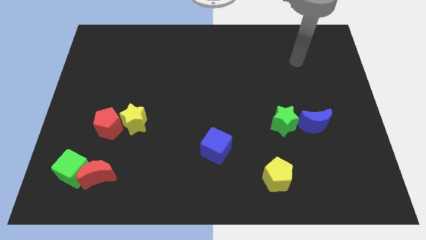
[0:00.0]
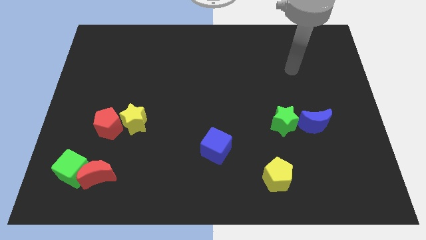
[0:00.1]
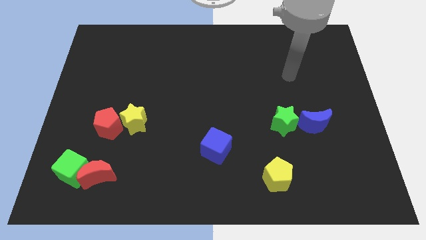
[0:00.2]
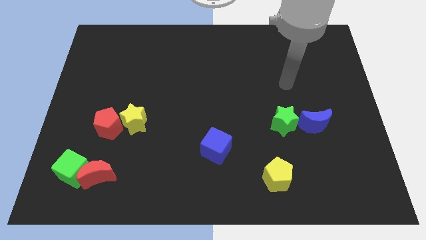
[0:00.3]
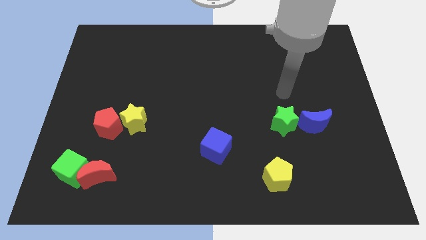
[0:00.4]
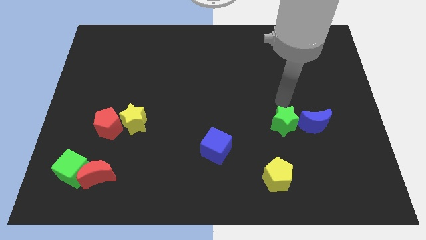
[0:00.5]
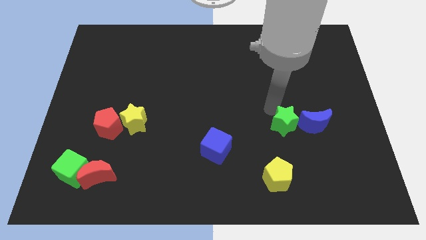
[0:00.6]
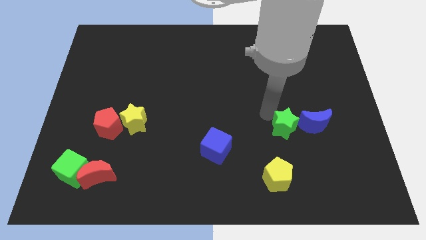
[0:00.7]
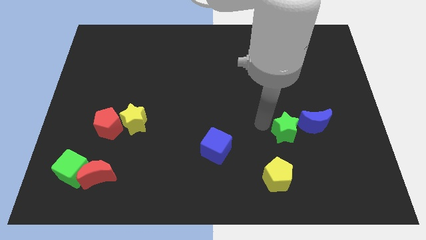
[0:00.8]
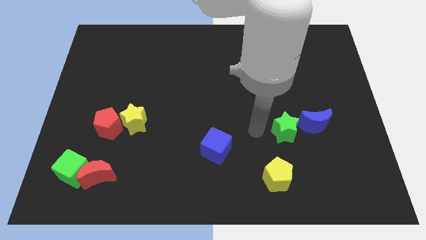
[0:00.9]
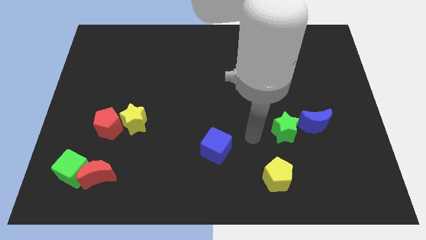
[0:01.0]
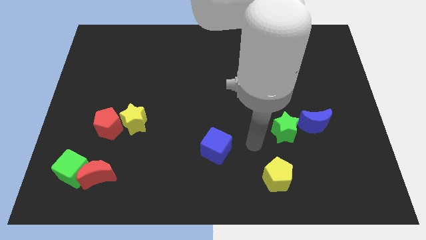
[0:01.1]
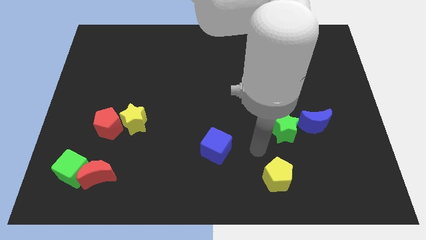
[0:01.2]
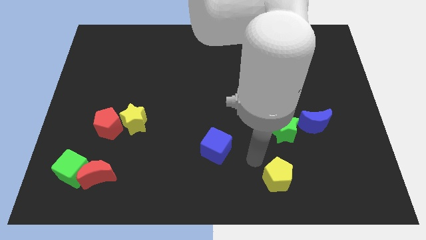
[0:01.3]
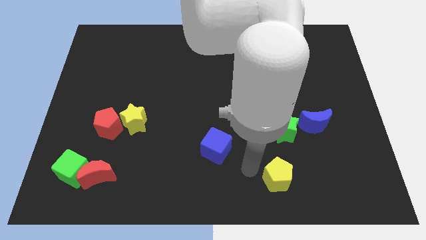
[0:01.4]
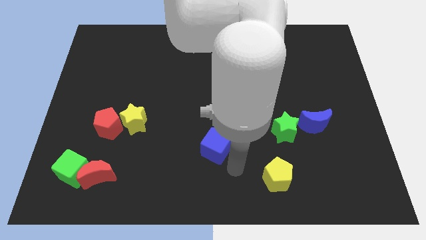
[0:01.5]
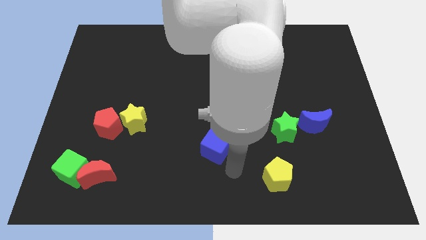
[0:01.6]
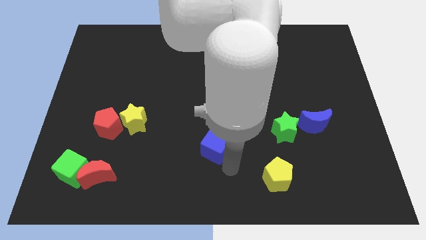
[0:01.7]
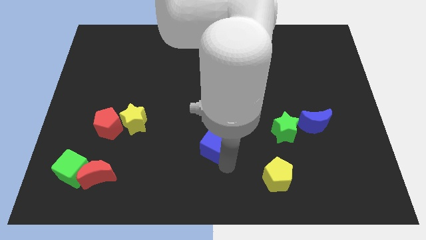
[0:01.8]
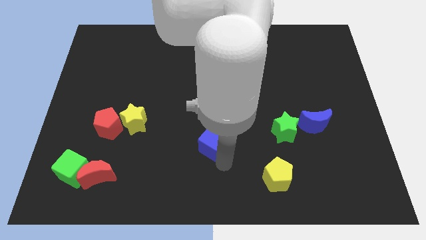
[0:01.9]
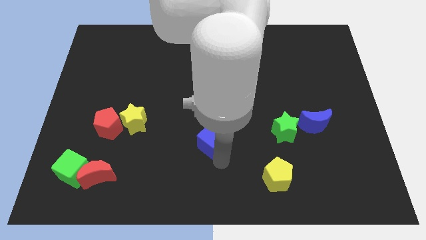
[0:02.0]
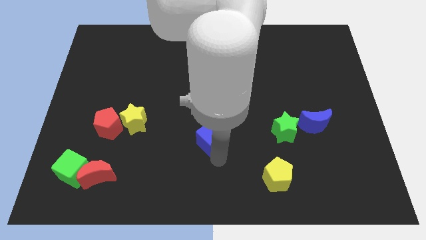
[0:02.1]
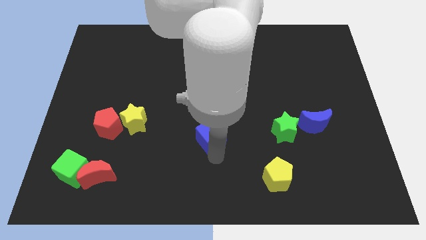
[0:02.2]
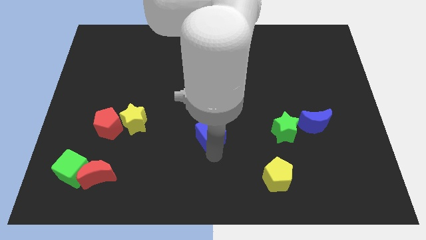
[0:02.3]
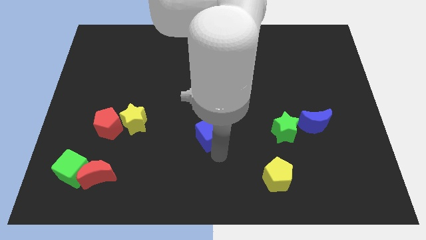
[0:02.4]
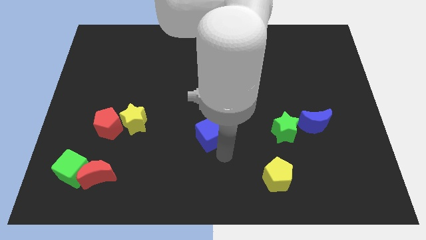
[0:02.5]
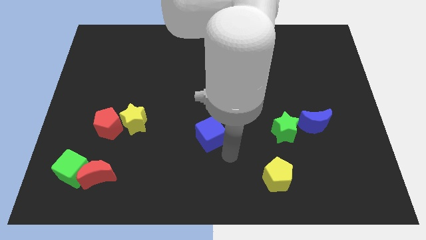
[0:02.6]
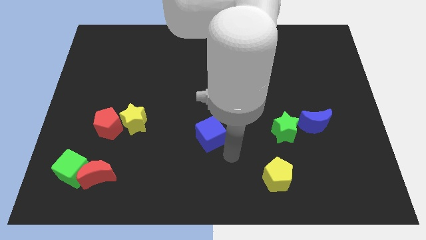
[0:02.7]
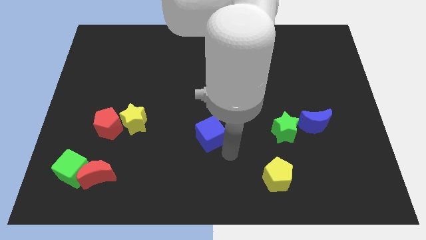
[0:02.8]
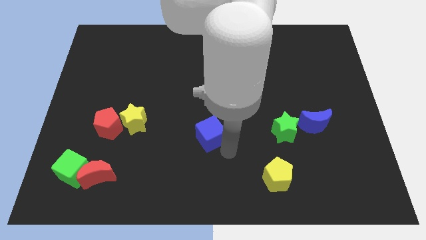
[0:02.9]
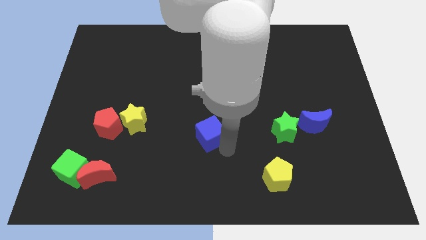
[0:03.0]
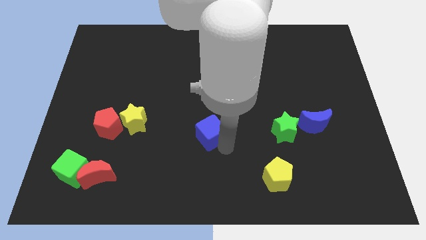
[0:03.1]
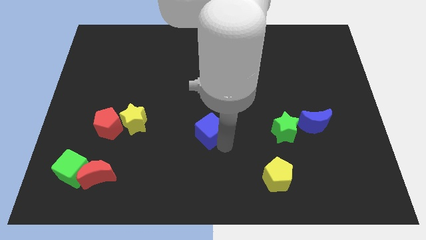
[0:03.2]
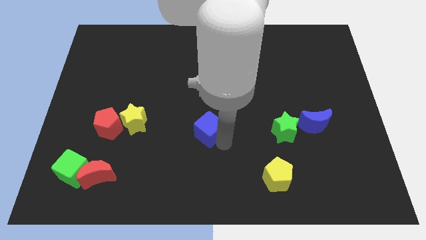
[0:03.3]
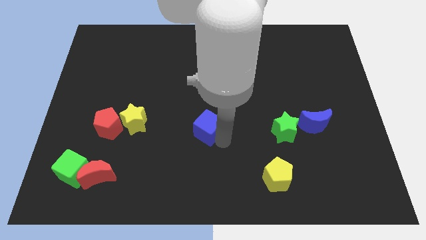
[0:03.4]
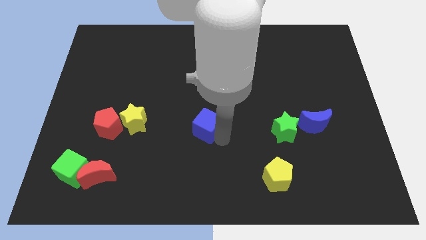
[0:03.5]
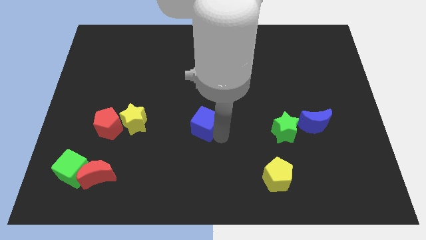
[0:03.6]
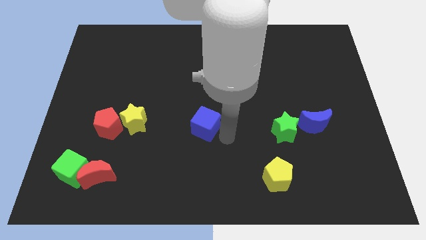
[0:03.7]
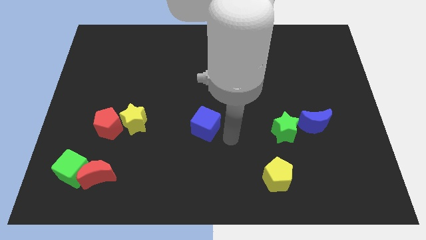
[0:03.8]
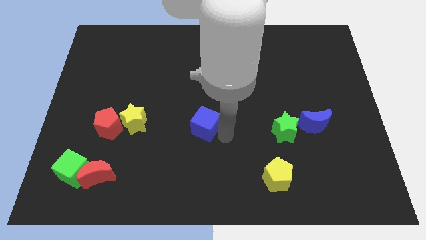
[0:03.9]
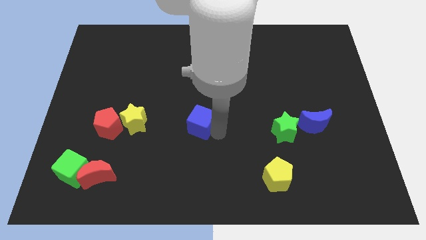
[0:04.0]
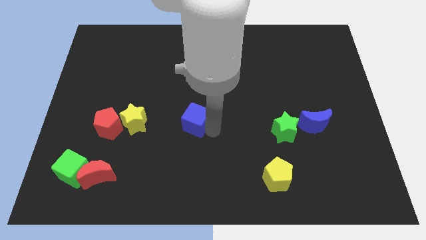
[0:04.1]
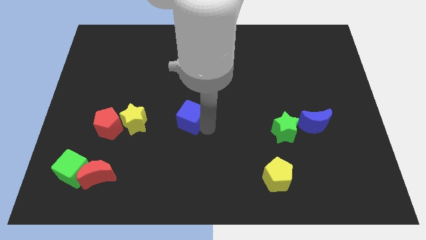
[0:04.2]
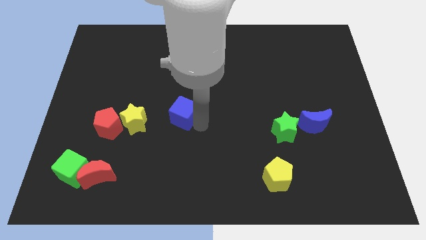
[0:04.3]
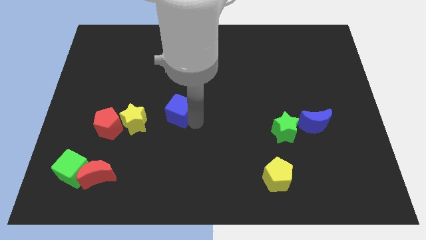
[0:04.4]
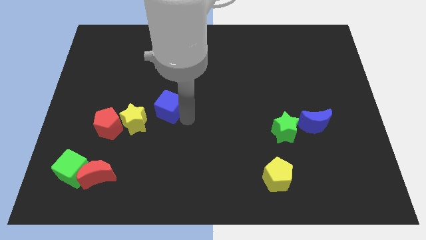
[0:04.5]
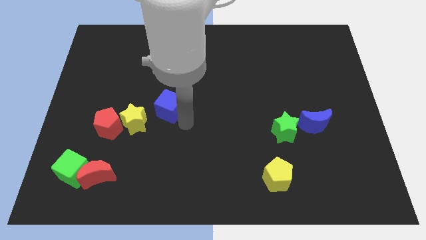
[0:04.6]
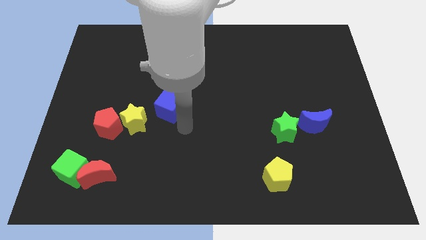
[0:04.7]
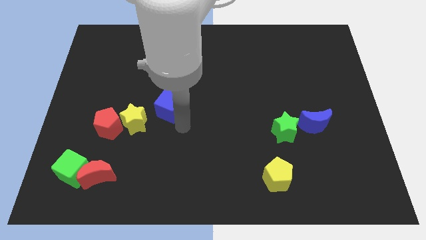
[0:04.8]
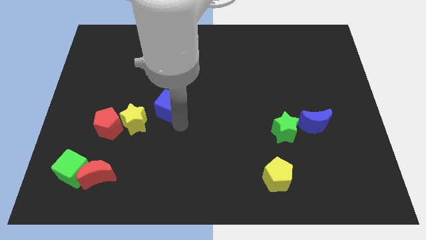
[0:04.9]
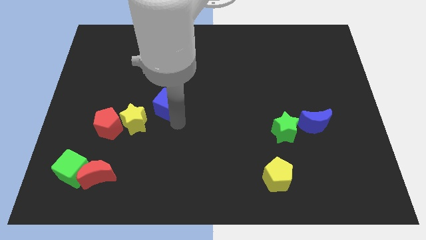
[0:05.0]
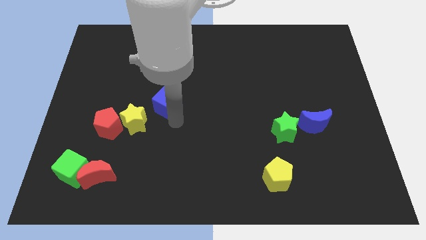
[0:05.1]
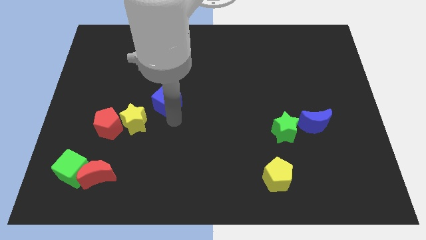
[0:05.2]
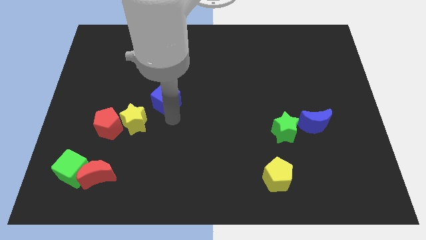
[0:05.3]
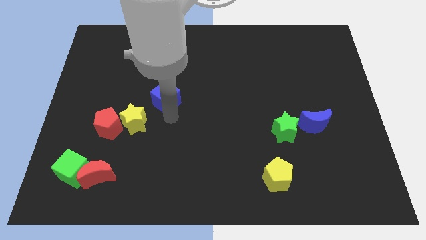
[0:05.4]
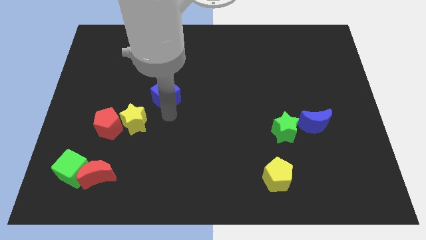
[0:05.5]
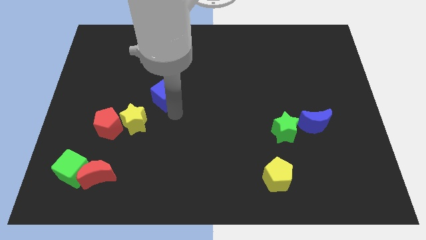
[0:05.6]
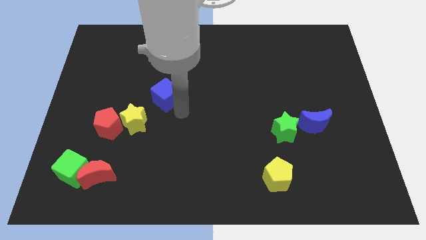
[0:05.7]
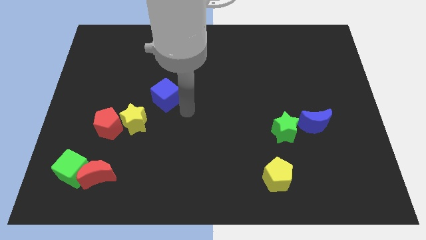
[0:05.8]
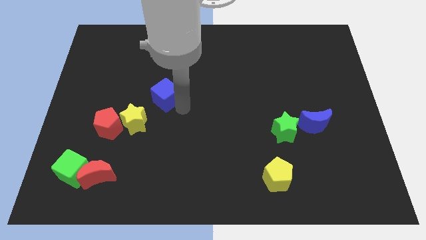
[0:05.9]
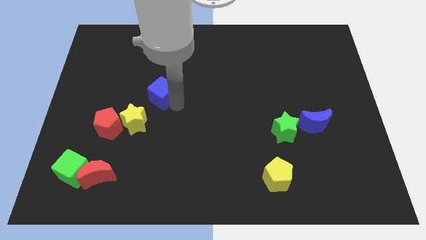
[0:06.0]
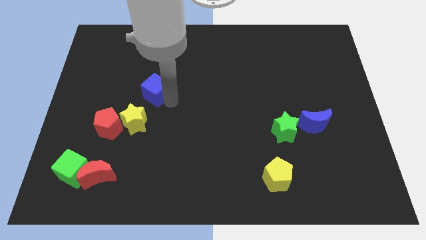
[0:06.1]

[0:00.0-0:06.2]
push the blue cube up and then left

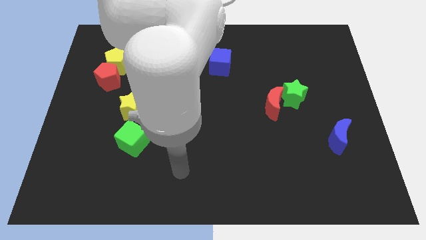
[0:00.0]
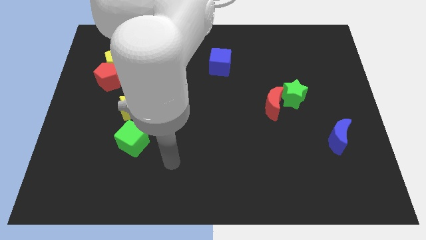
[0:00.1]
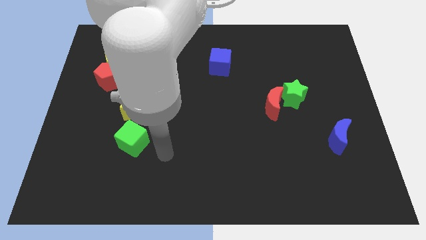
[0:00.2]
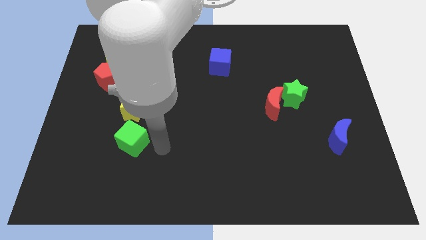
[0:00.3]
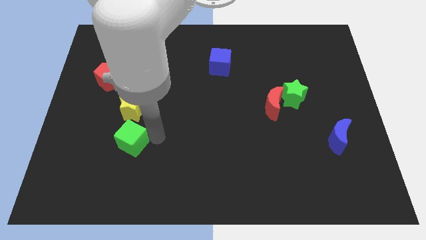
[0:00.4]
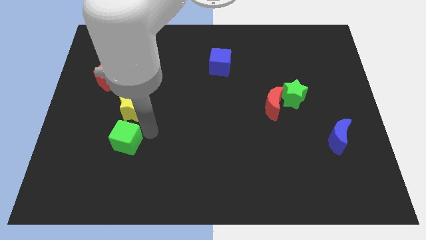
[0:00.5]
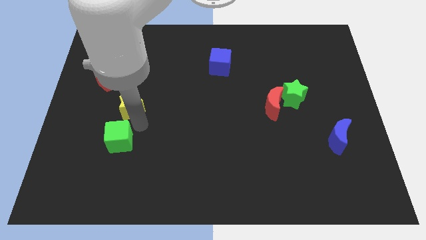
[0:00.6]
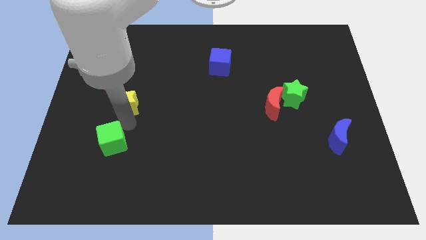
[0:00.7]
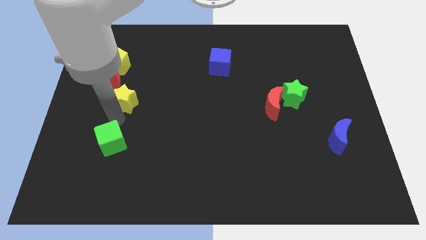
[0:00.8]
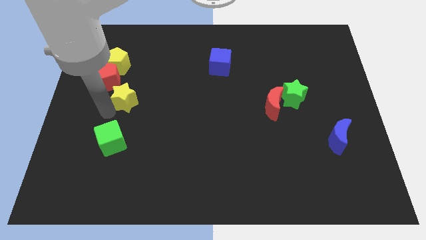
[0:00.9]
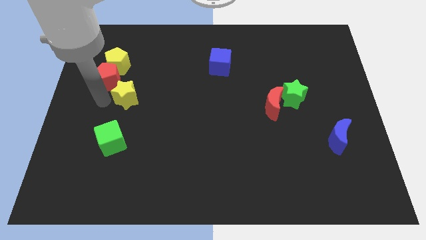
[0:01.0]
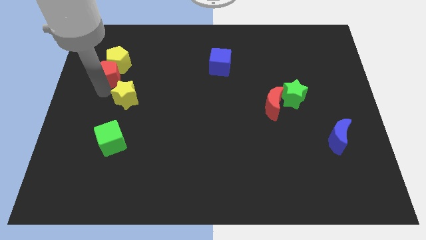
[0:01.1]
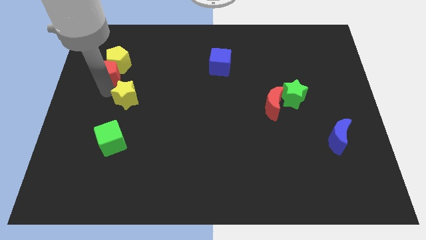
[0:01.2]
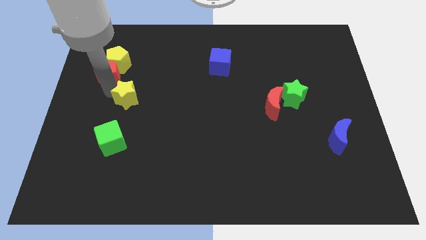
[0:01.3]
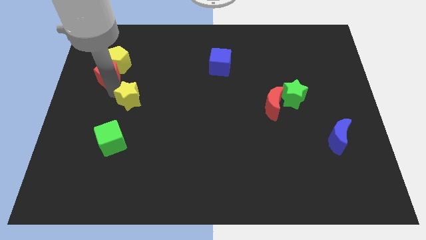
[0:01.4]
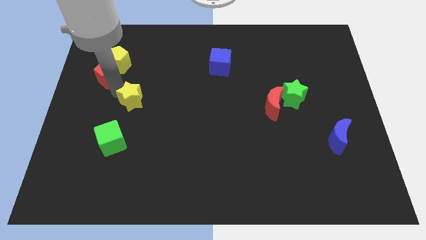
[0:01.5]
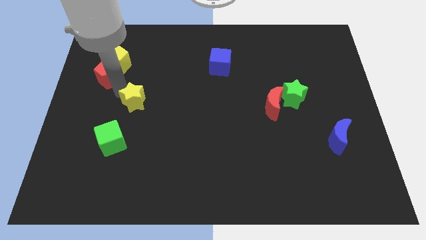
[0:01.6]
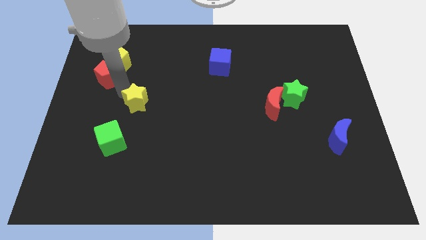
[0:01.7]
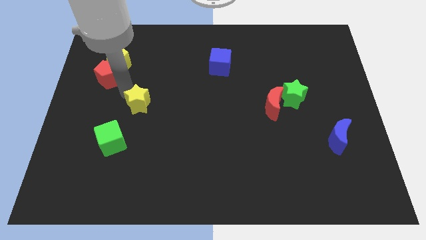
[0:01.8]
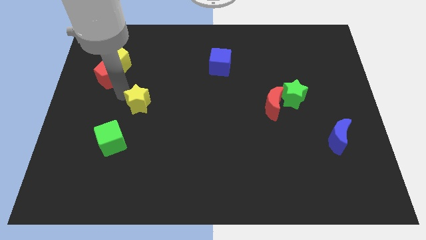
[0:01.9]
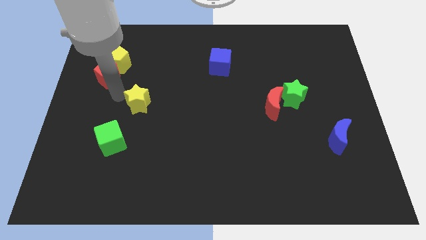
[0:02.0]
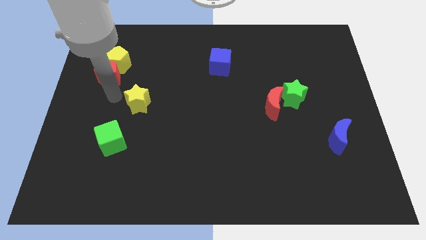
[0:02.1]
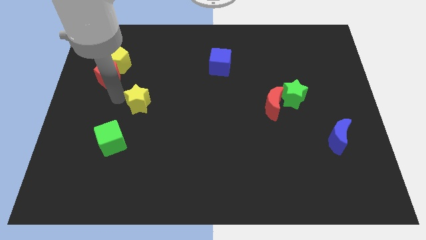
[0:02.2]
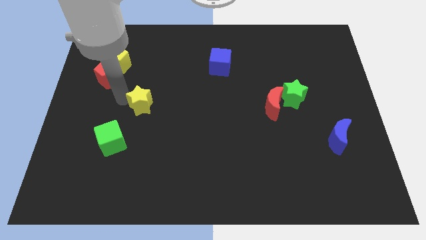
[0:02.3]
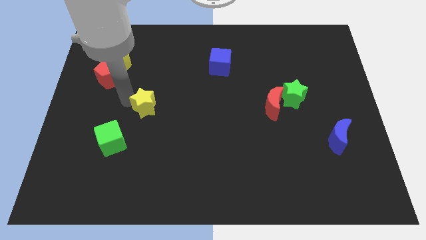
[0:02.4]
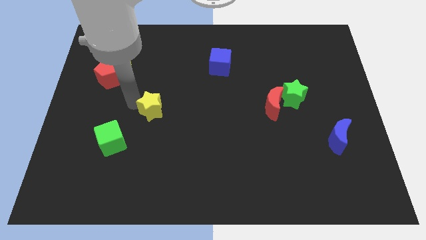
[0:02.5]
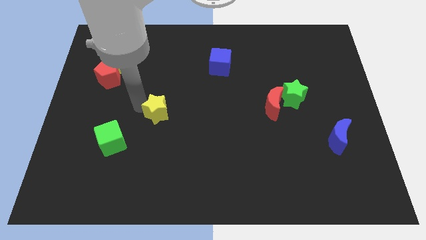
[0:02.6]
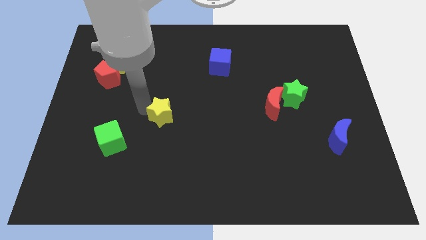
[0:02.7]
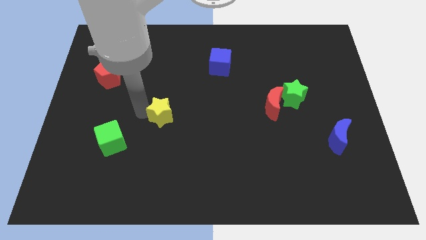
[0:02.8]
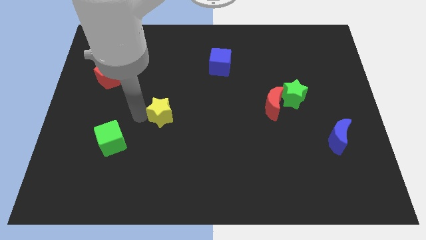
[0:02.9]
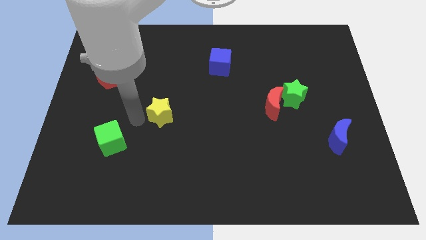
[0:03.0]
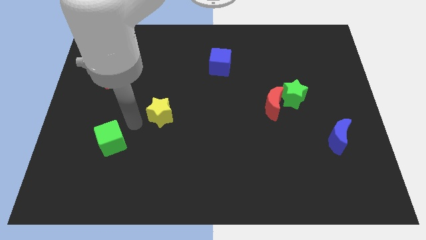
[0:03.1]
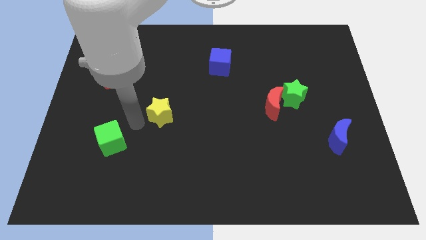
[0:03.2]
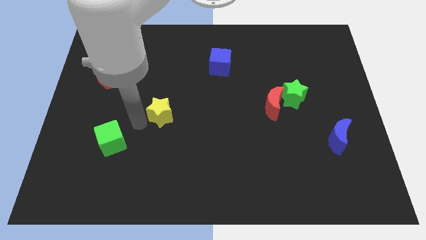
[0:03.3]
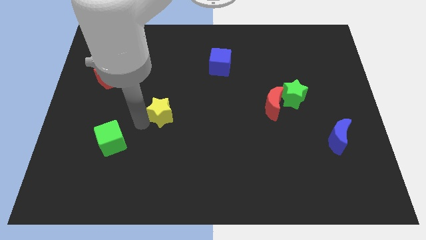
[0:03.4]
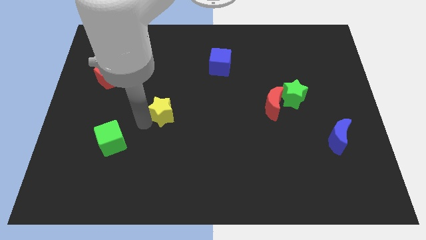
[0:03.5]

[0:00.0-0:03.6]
slightly slide the yellow star to the right
